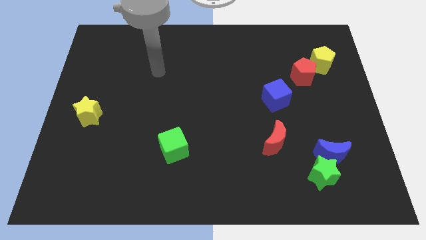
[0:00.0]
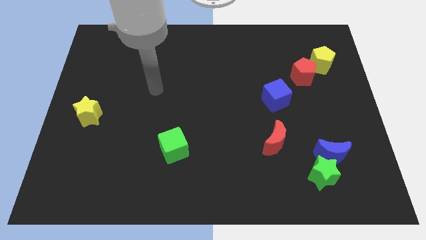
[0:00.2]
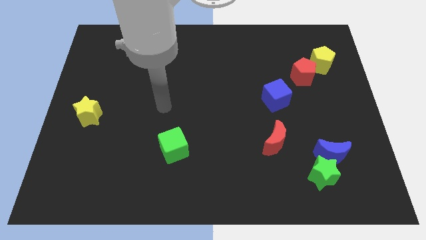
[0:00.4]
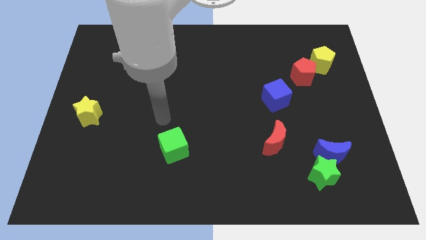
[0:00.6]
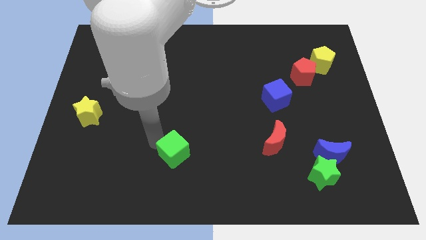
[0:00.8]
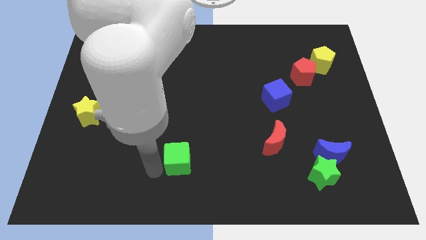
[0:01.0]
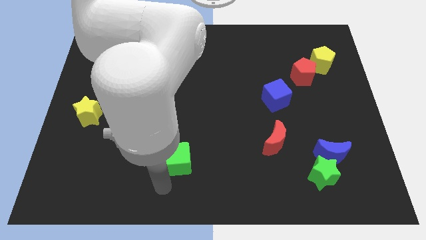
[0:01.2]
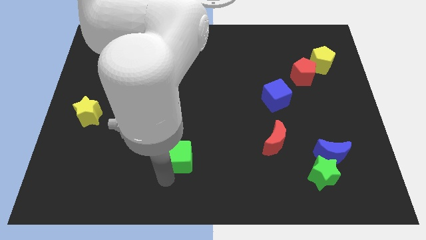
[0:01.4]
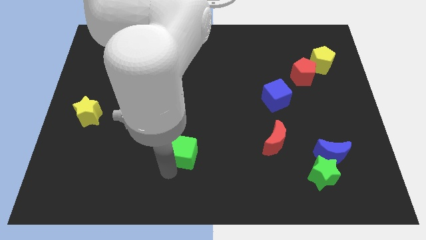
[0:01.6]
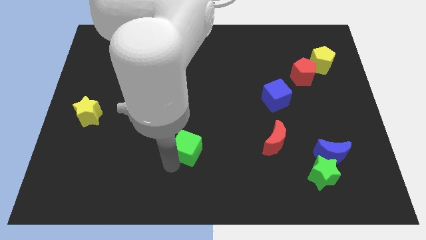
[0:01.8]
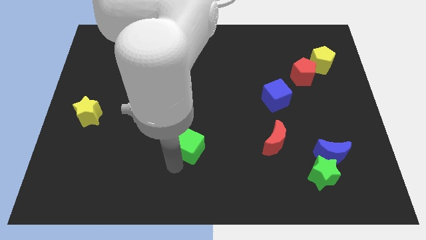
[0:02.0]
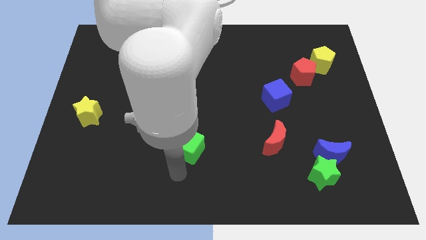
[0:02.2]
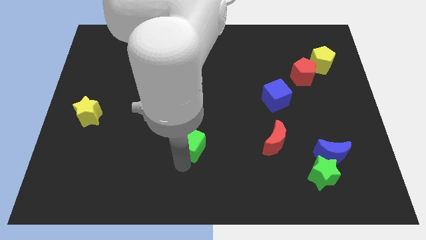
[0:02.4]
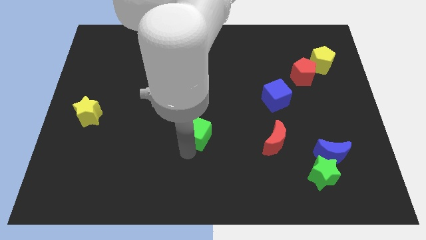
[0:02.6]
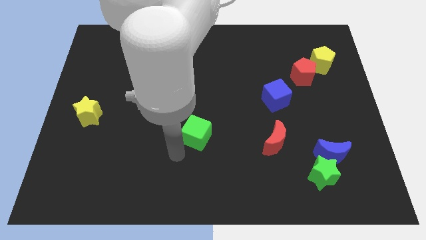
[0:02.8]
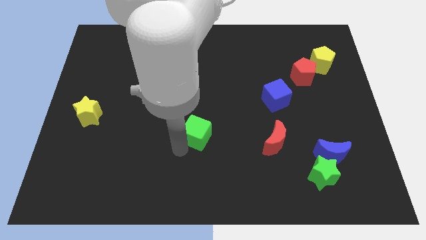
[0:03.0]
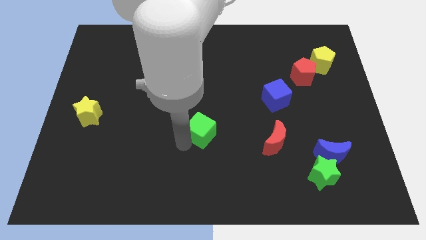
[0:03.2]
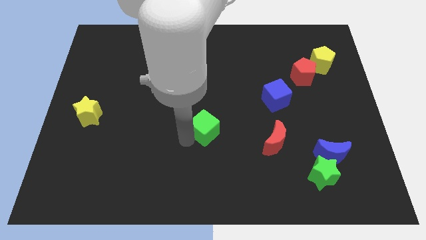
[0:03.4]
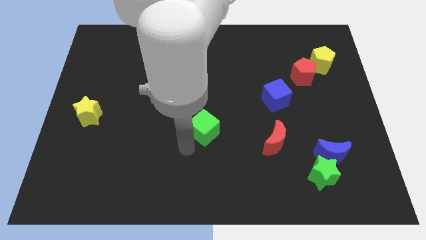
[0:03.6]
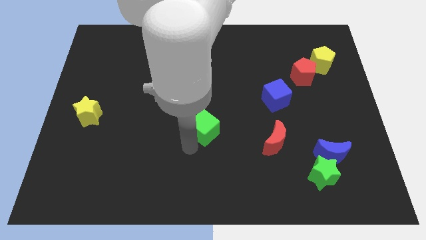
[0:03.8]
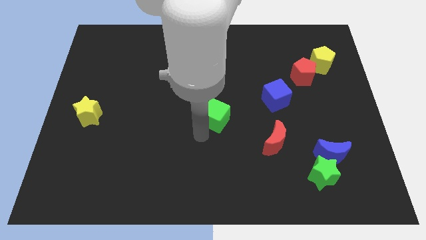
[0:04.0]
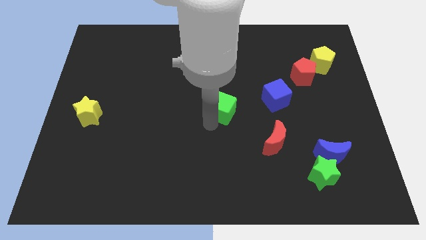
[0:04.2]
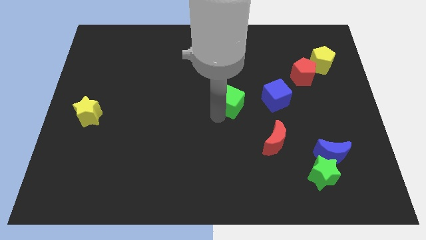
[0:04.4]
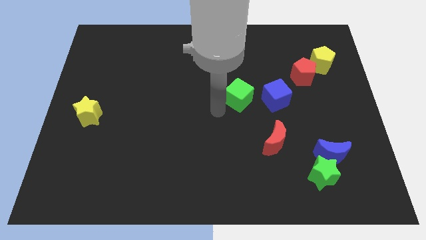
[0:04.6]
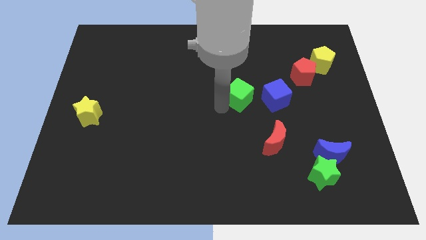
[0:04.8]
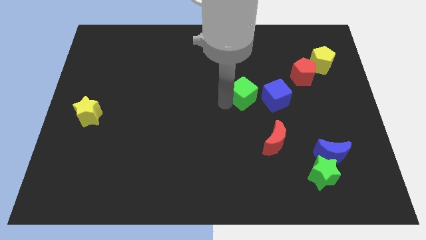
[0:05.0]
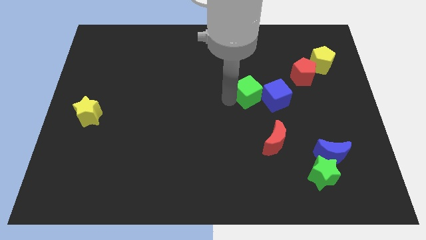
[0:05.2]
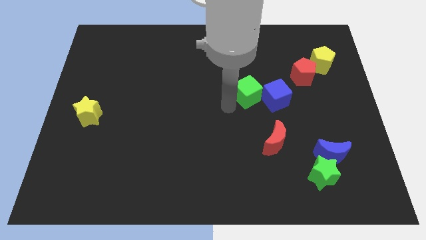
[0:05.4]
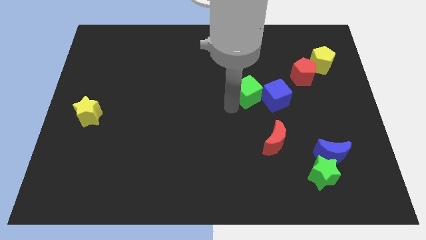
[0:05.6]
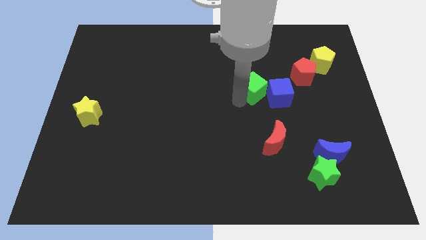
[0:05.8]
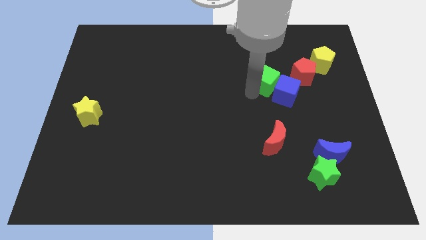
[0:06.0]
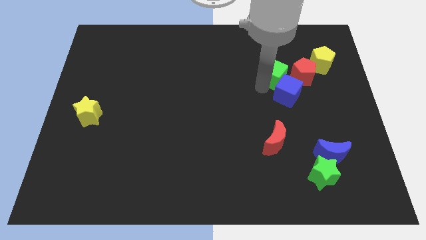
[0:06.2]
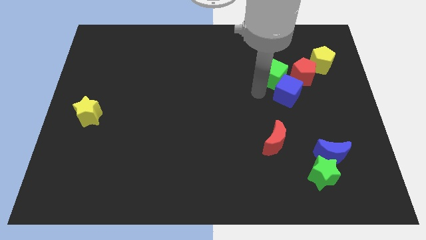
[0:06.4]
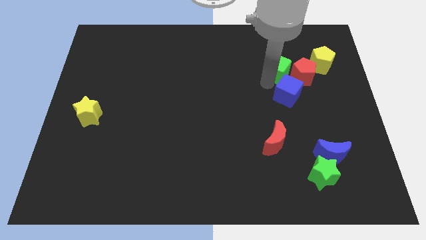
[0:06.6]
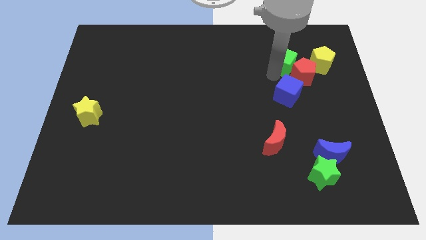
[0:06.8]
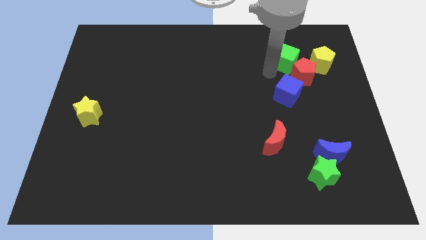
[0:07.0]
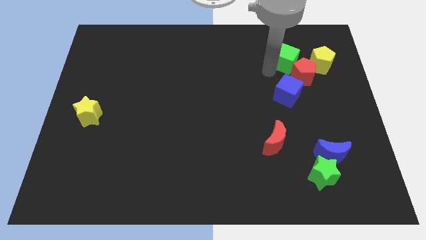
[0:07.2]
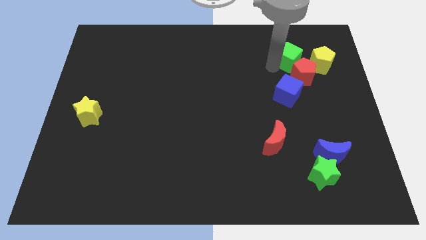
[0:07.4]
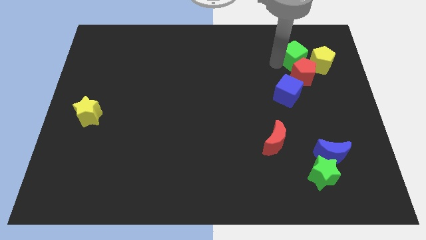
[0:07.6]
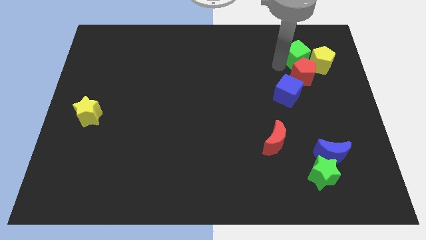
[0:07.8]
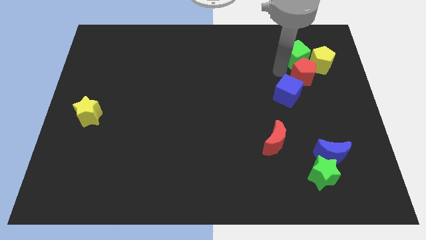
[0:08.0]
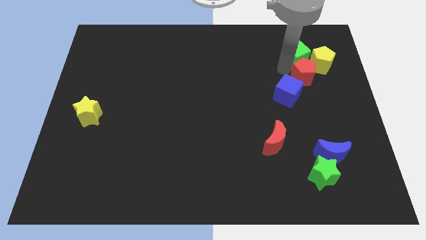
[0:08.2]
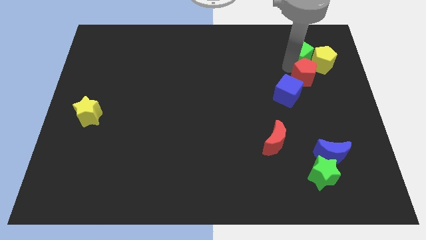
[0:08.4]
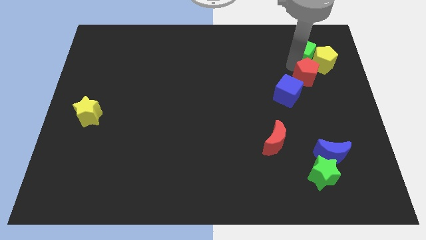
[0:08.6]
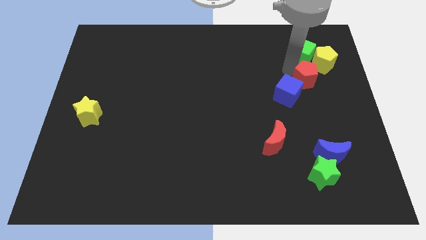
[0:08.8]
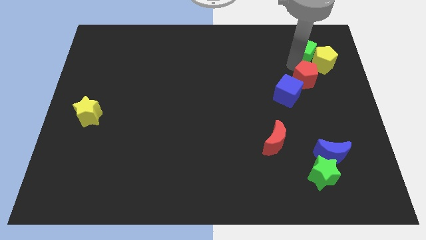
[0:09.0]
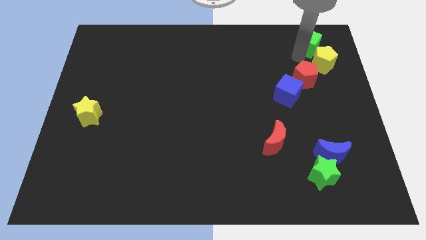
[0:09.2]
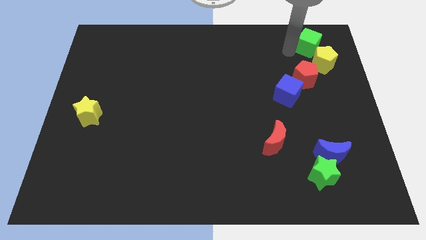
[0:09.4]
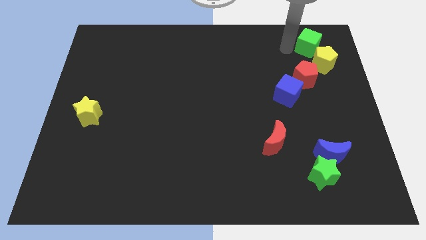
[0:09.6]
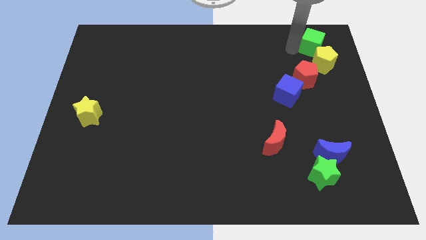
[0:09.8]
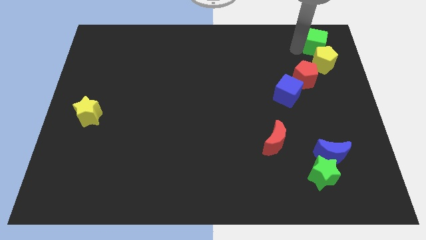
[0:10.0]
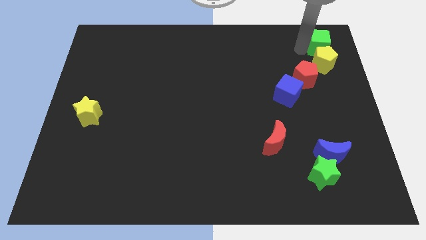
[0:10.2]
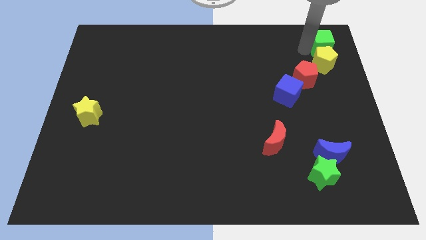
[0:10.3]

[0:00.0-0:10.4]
move the green cube to the top right
